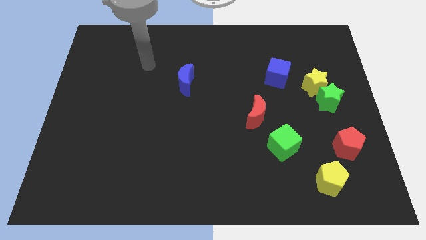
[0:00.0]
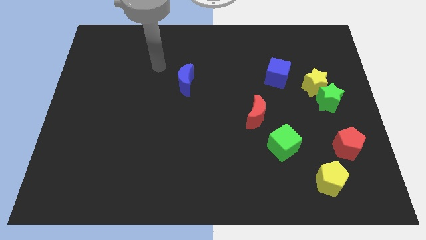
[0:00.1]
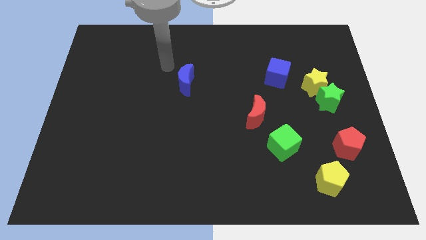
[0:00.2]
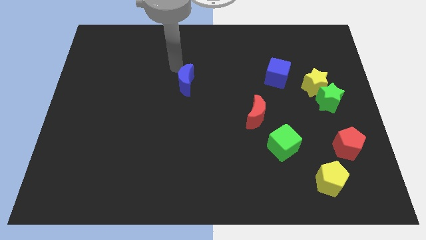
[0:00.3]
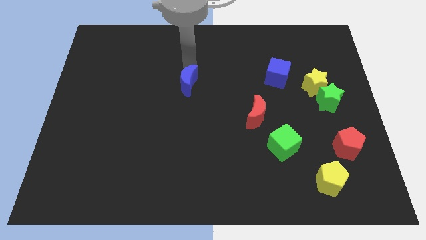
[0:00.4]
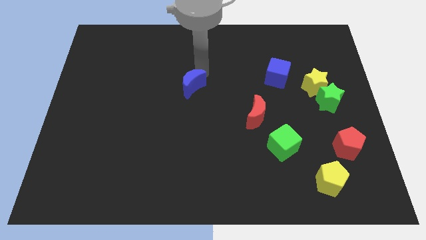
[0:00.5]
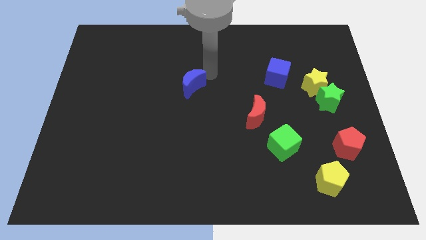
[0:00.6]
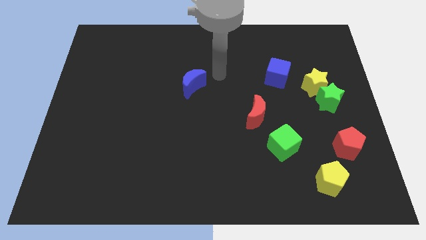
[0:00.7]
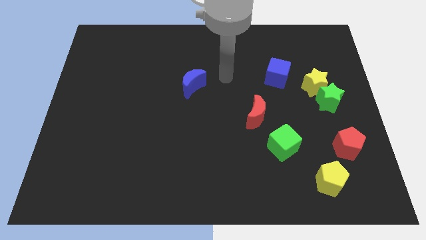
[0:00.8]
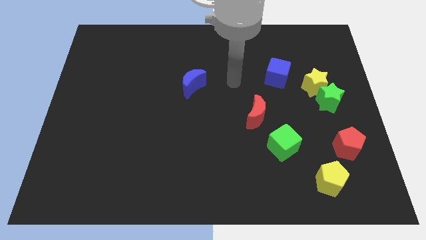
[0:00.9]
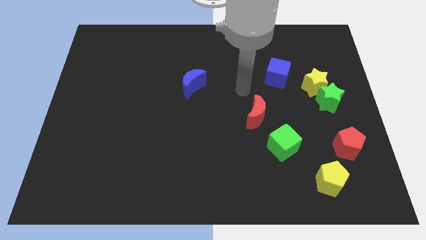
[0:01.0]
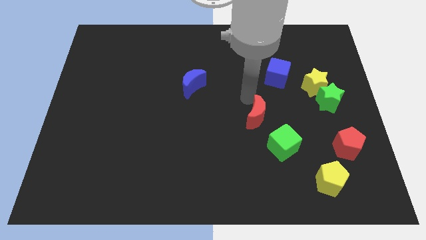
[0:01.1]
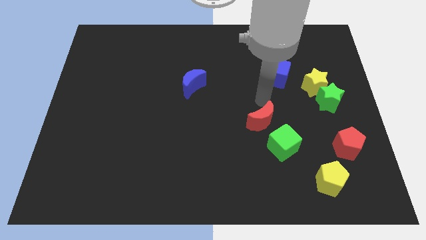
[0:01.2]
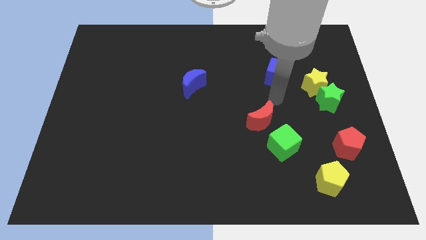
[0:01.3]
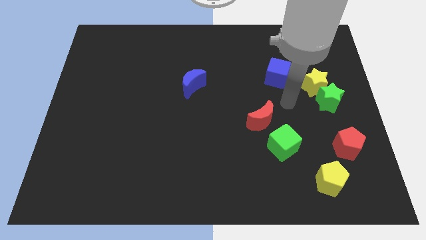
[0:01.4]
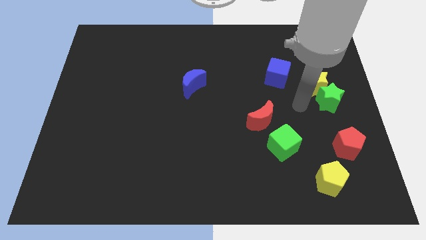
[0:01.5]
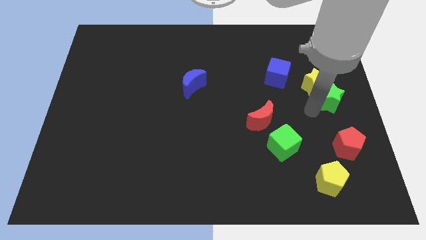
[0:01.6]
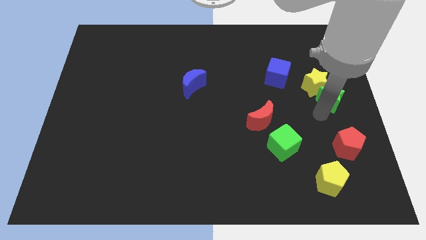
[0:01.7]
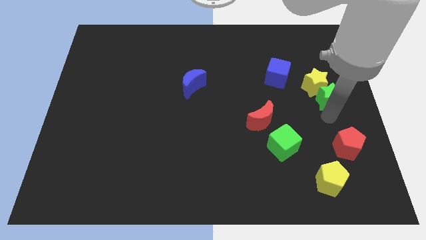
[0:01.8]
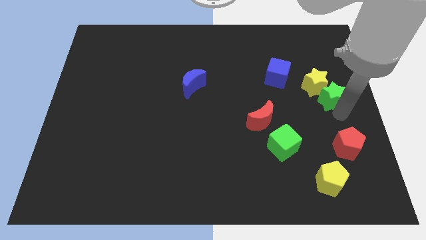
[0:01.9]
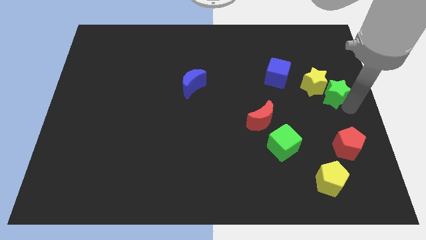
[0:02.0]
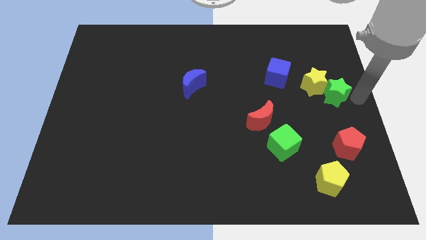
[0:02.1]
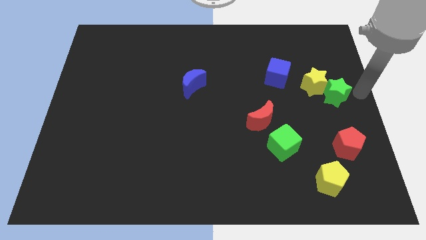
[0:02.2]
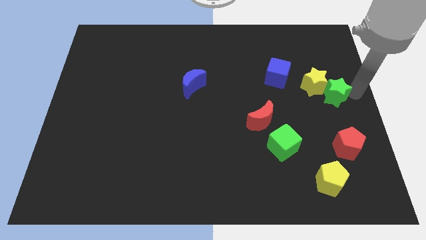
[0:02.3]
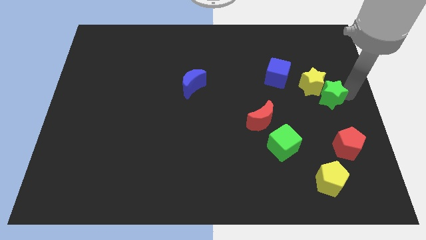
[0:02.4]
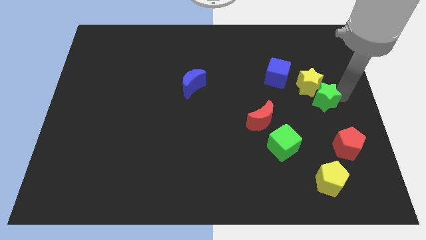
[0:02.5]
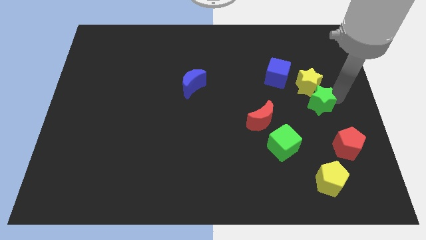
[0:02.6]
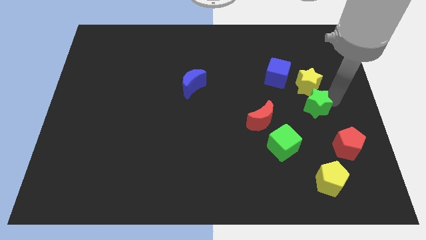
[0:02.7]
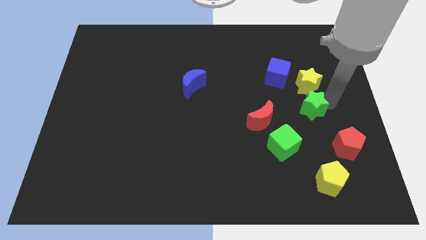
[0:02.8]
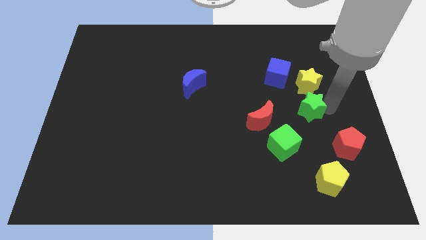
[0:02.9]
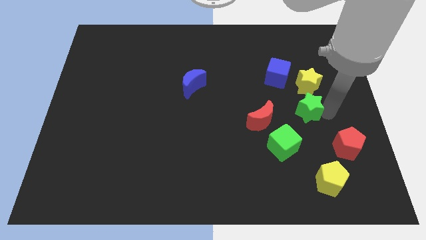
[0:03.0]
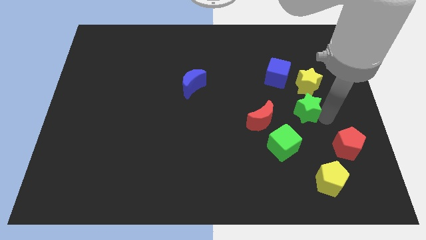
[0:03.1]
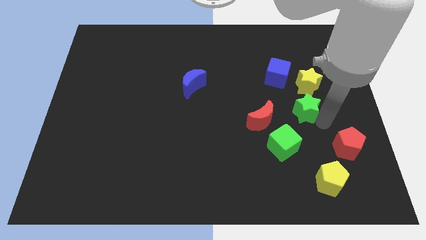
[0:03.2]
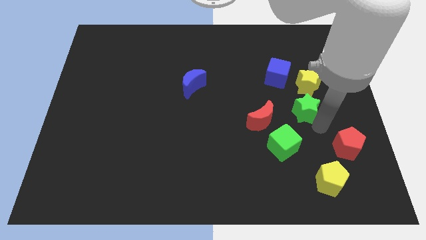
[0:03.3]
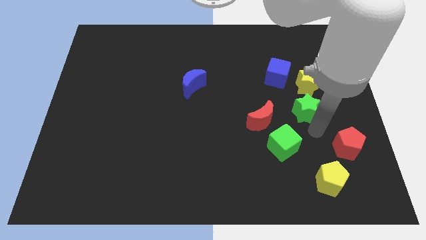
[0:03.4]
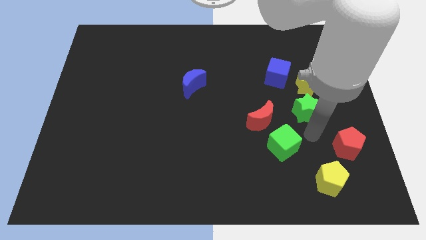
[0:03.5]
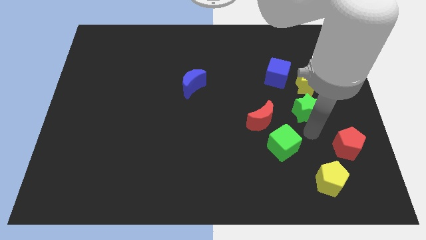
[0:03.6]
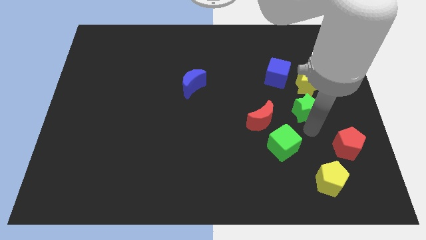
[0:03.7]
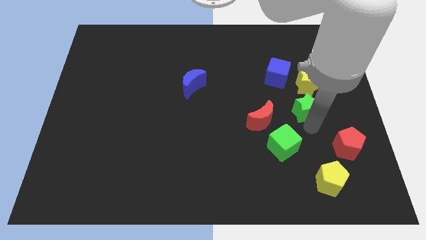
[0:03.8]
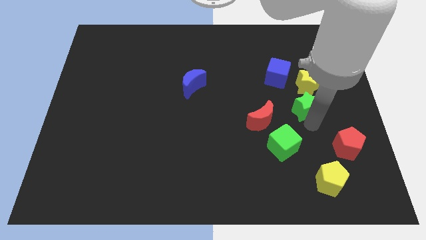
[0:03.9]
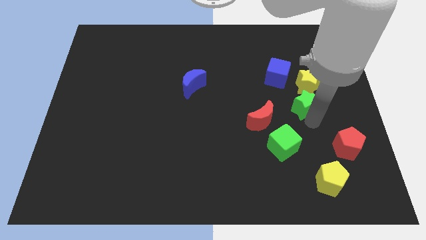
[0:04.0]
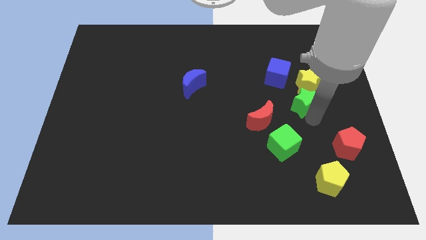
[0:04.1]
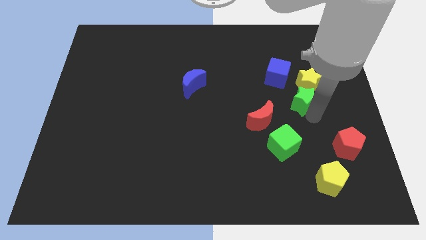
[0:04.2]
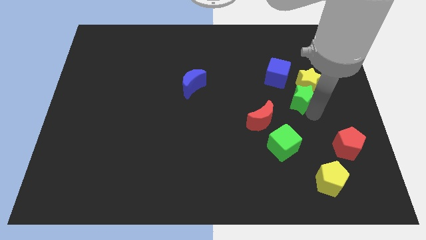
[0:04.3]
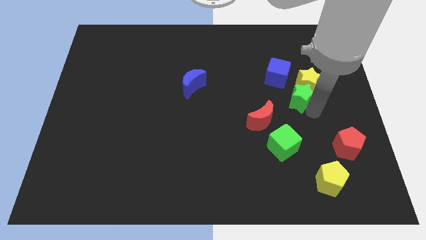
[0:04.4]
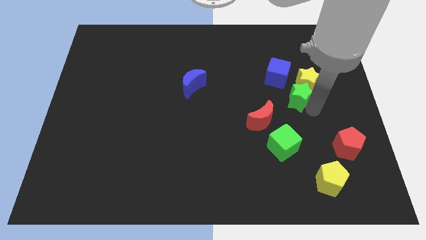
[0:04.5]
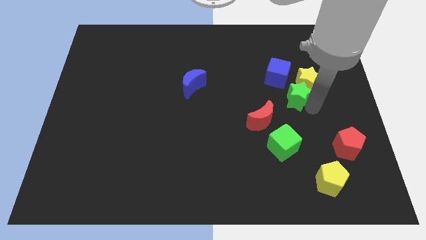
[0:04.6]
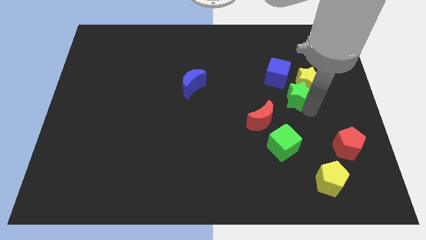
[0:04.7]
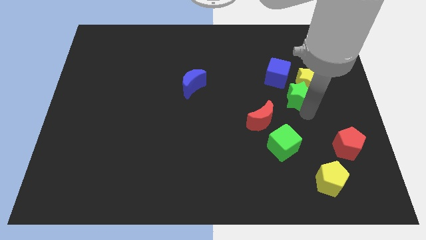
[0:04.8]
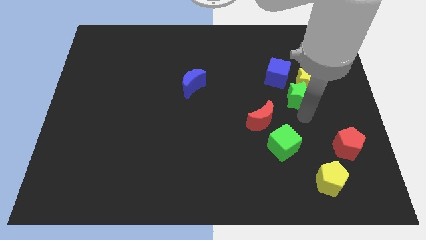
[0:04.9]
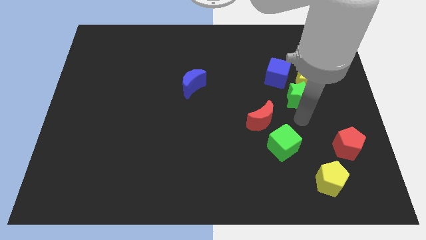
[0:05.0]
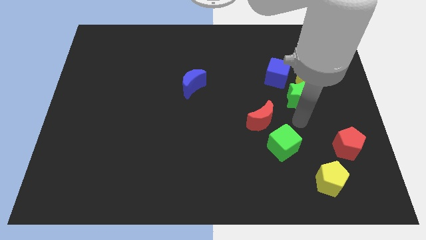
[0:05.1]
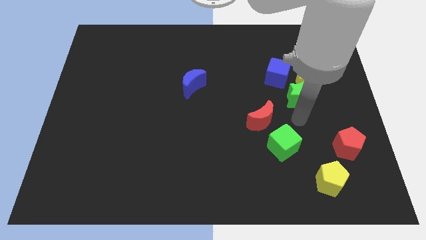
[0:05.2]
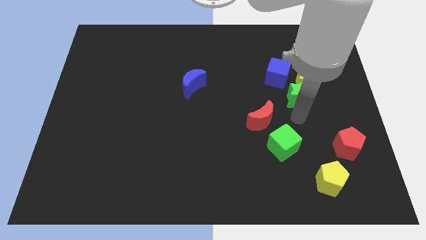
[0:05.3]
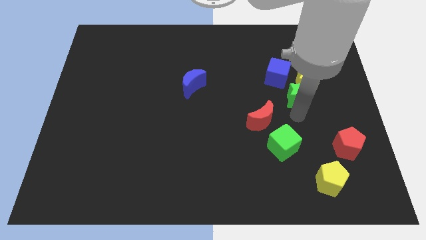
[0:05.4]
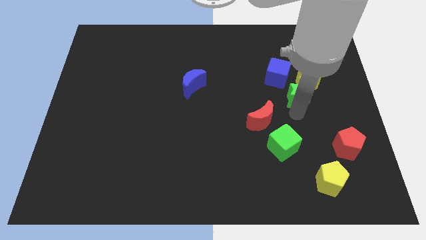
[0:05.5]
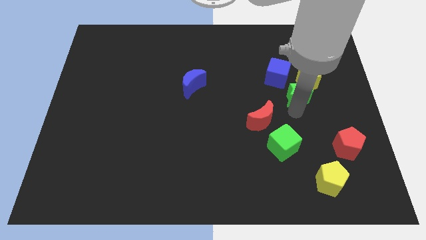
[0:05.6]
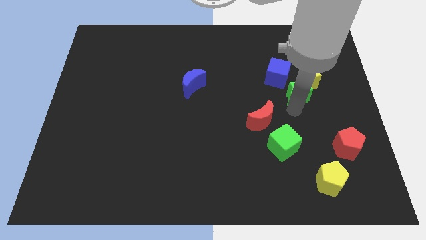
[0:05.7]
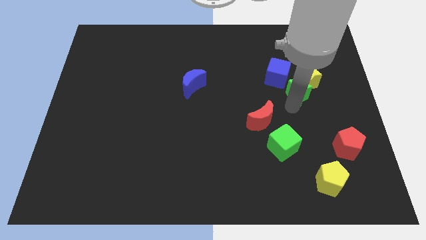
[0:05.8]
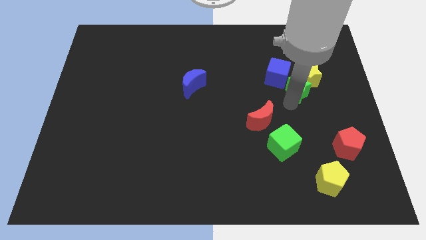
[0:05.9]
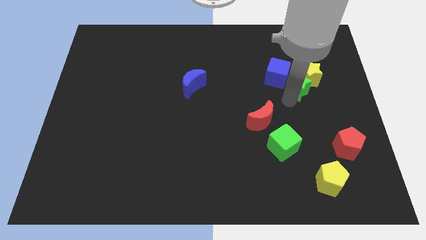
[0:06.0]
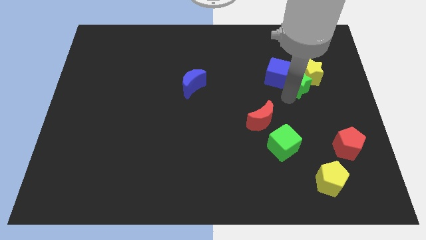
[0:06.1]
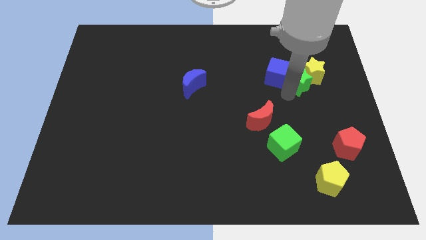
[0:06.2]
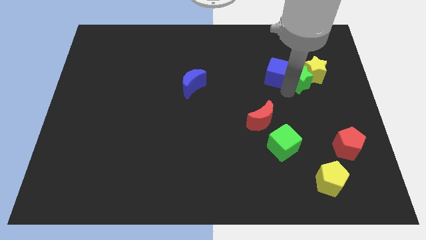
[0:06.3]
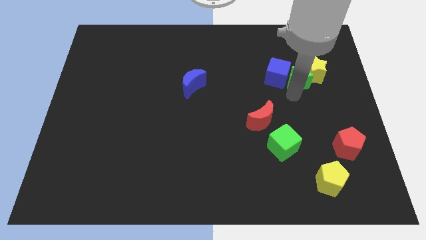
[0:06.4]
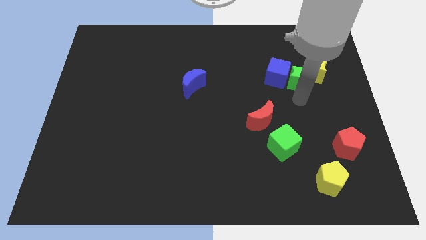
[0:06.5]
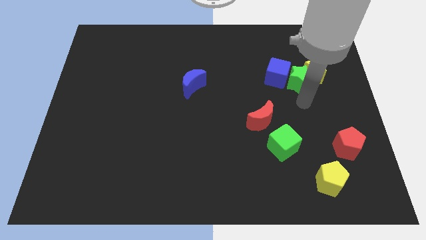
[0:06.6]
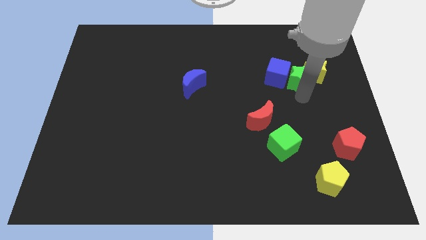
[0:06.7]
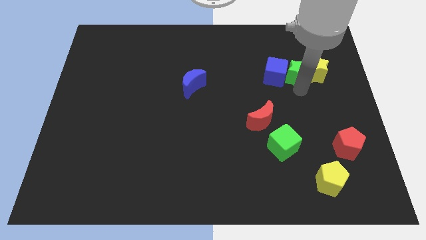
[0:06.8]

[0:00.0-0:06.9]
push the green star to the top left side of the yellow star

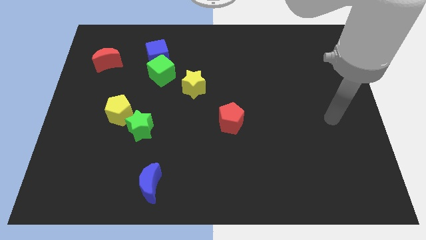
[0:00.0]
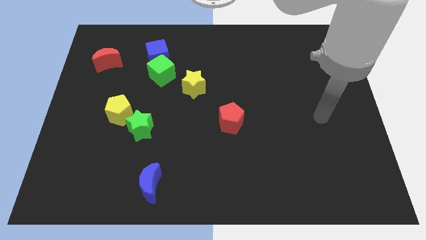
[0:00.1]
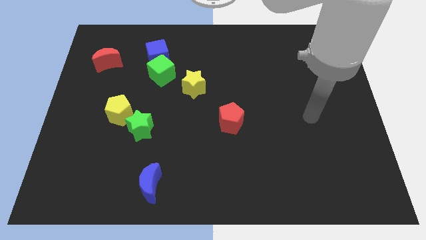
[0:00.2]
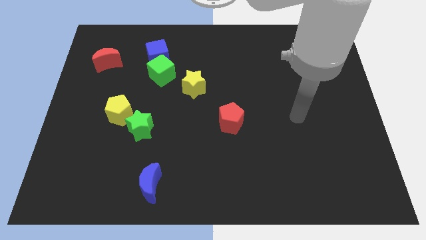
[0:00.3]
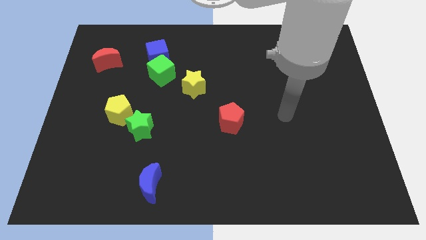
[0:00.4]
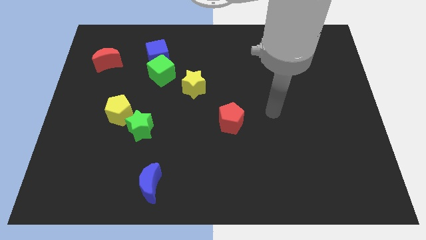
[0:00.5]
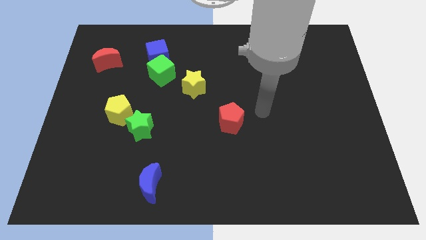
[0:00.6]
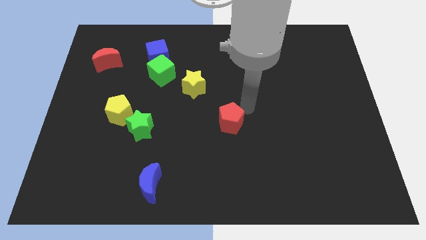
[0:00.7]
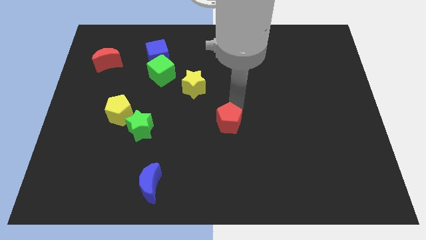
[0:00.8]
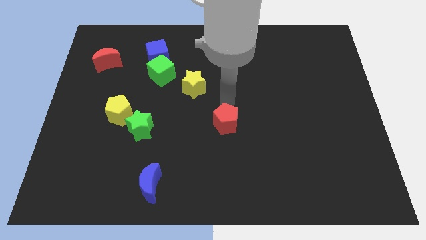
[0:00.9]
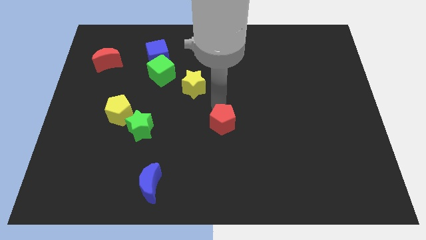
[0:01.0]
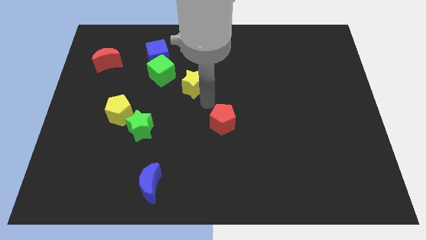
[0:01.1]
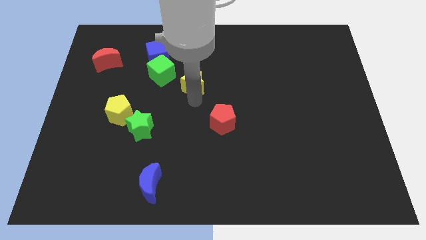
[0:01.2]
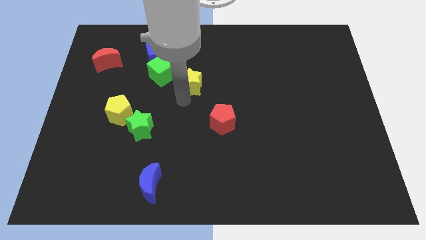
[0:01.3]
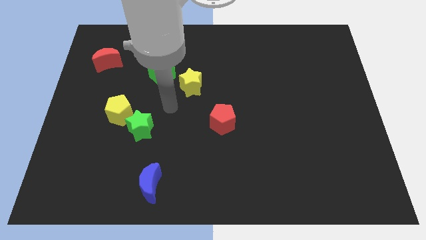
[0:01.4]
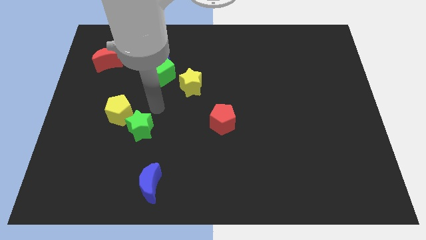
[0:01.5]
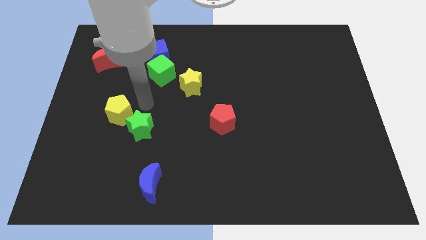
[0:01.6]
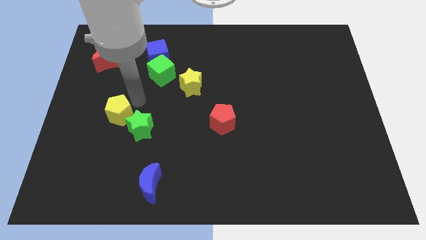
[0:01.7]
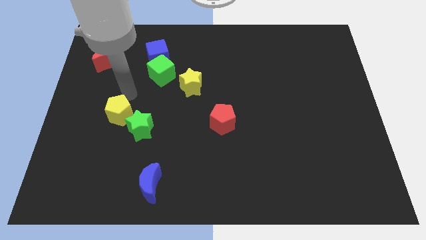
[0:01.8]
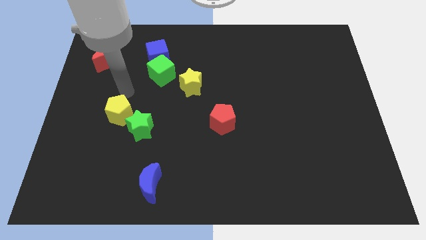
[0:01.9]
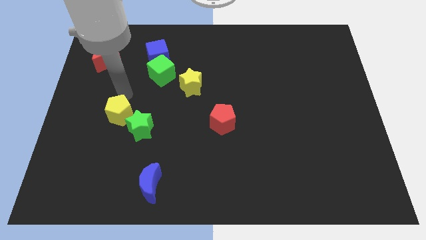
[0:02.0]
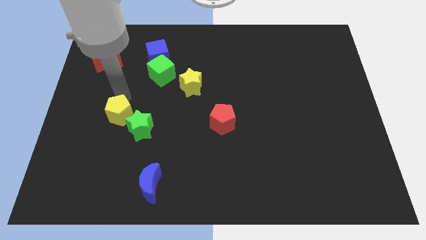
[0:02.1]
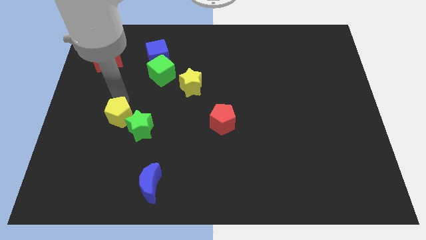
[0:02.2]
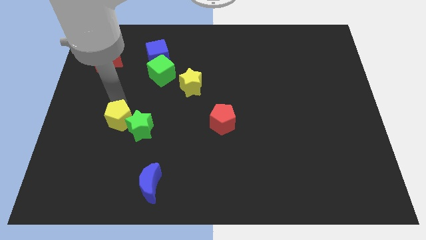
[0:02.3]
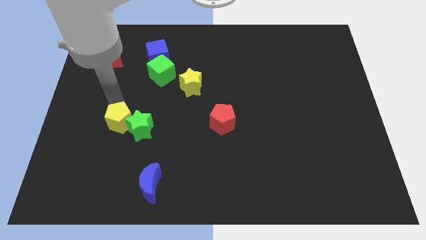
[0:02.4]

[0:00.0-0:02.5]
slide the yellow pentagon to the bottom left side of the green star
